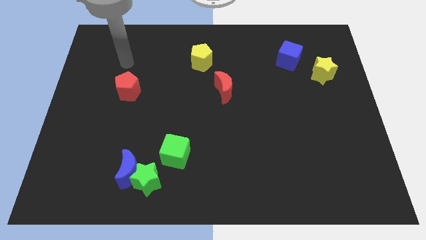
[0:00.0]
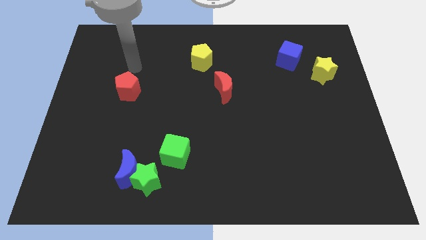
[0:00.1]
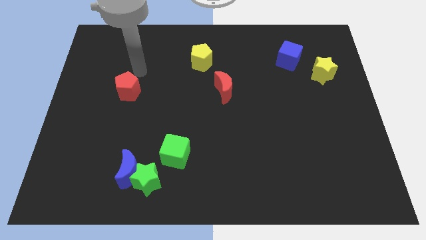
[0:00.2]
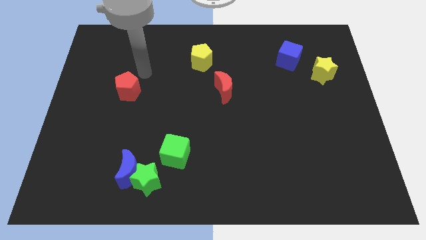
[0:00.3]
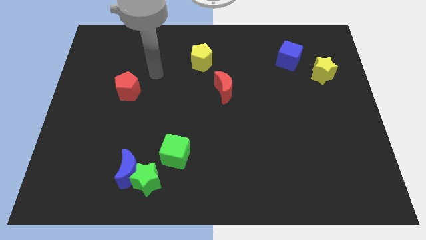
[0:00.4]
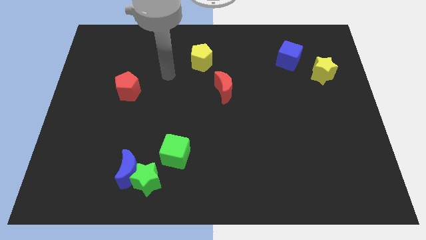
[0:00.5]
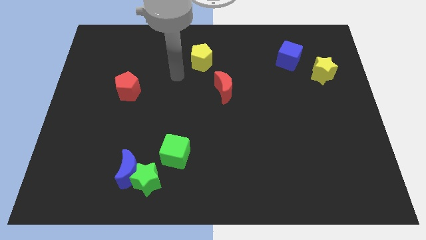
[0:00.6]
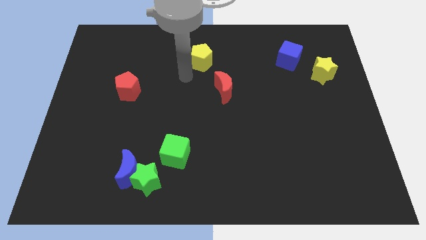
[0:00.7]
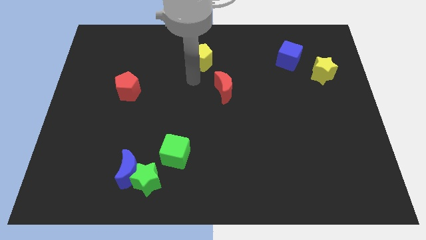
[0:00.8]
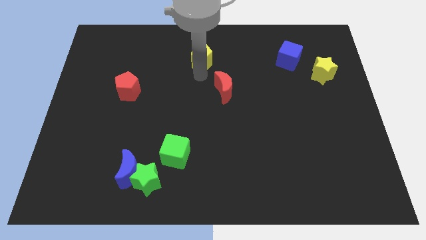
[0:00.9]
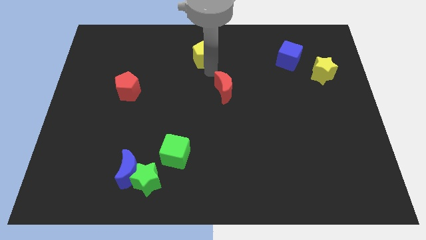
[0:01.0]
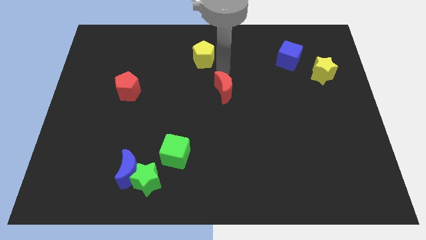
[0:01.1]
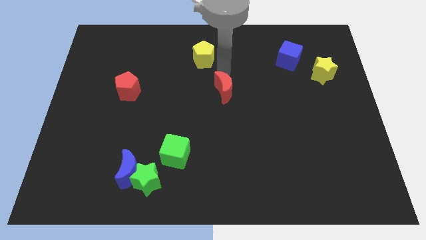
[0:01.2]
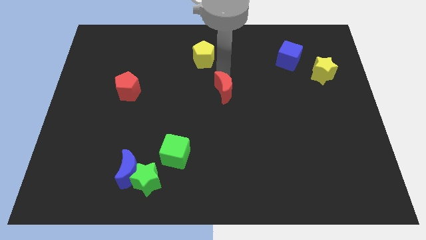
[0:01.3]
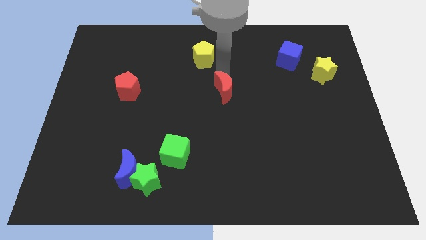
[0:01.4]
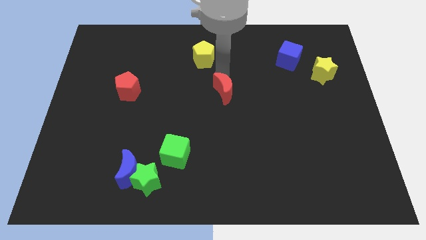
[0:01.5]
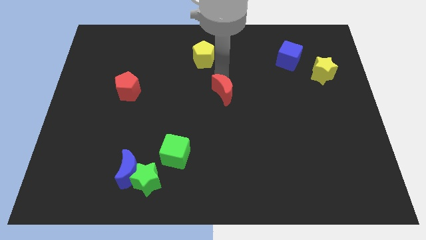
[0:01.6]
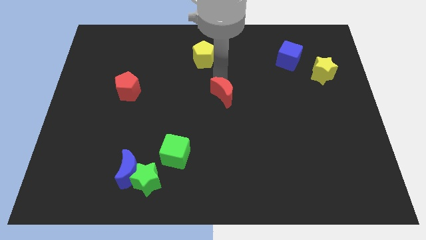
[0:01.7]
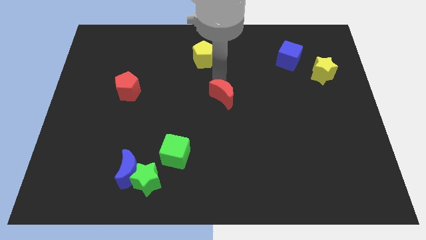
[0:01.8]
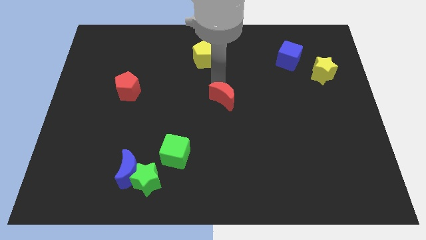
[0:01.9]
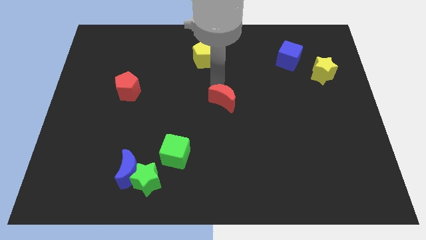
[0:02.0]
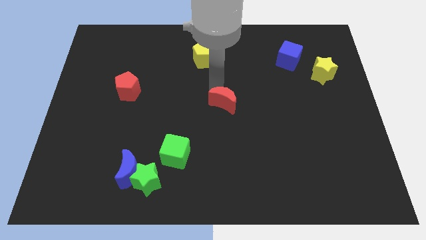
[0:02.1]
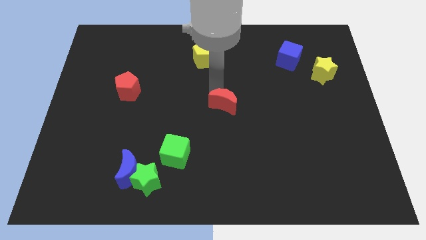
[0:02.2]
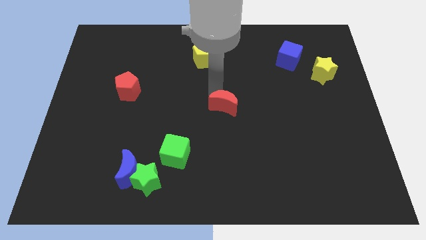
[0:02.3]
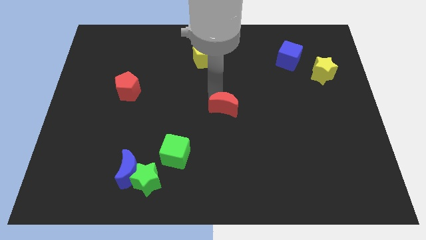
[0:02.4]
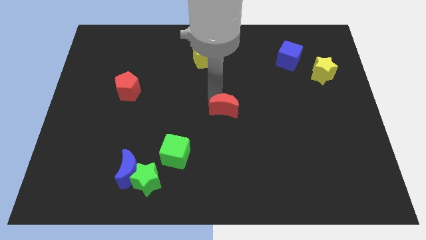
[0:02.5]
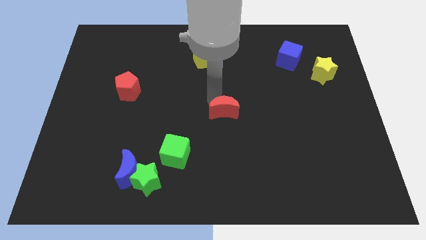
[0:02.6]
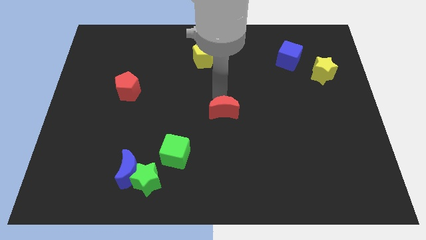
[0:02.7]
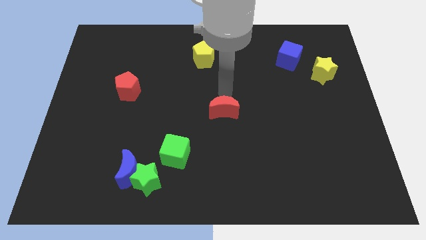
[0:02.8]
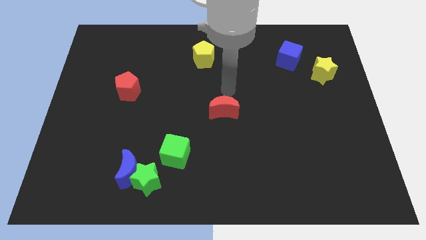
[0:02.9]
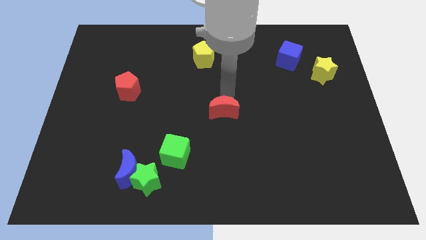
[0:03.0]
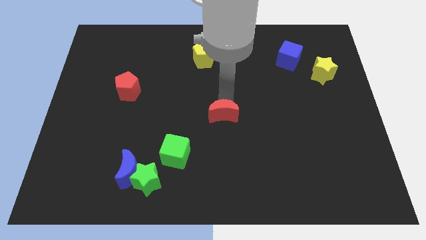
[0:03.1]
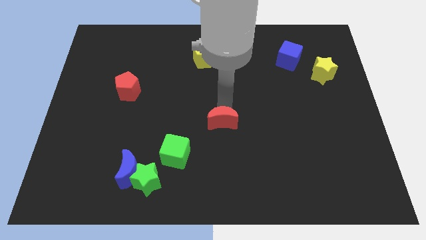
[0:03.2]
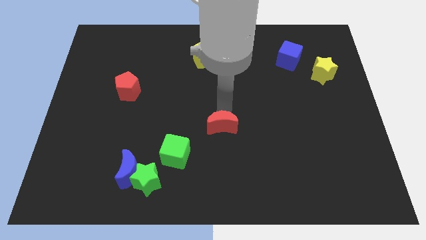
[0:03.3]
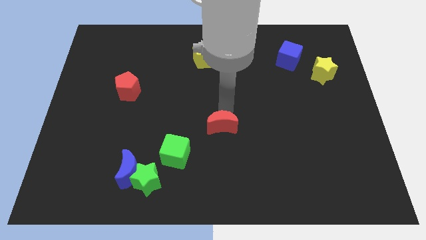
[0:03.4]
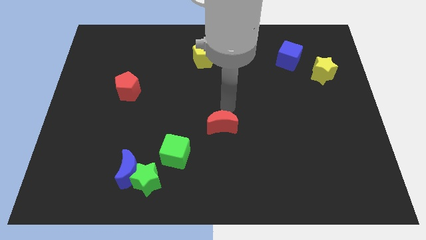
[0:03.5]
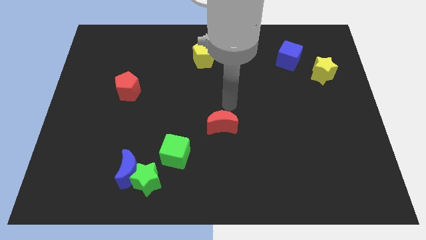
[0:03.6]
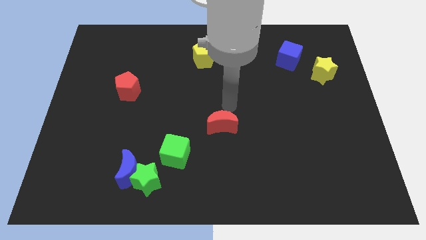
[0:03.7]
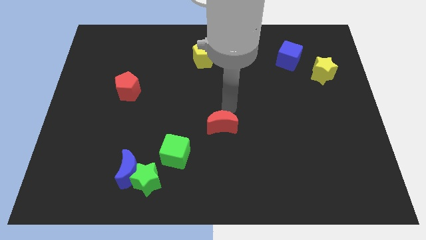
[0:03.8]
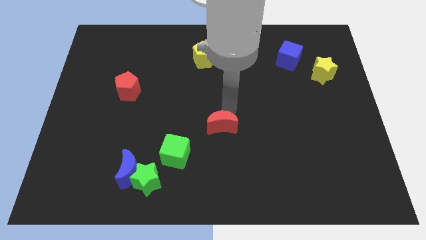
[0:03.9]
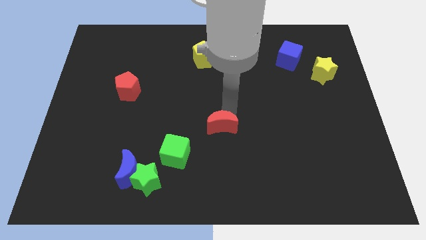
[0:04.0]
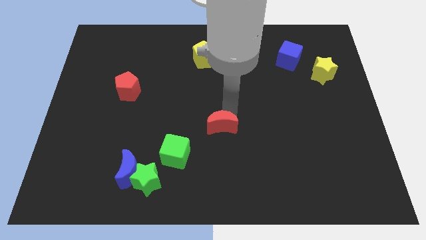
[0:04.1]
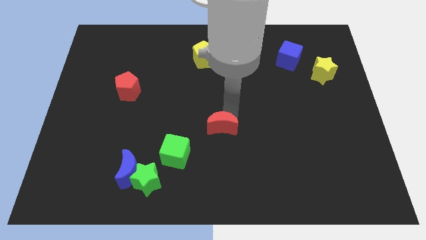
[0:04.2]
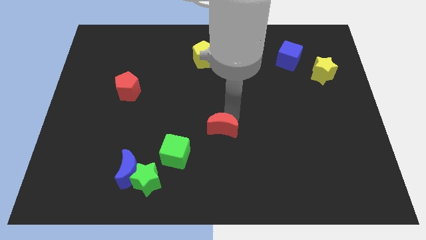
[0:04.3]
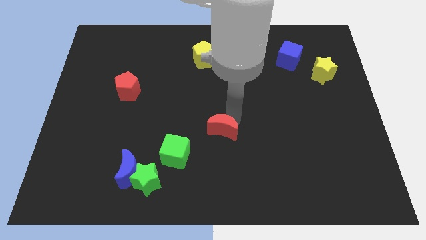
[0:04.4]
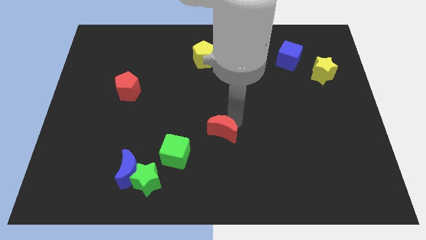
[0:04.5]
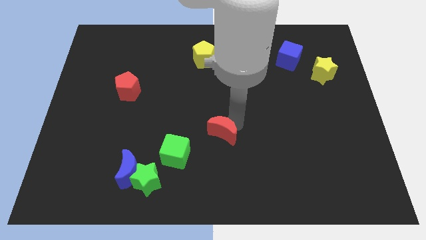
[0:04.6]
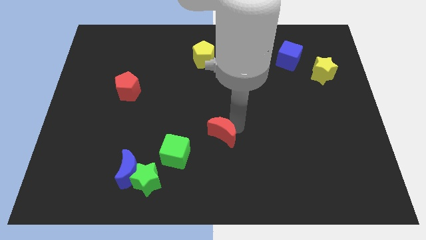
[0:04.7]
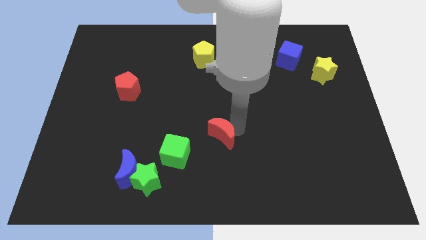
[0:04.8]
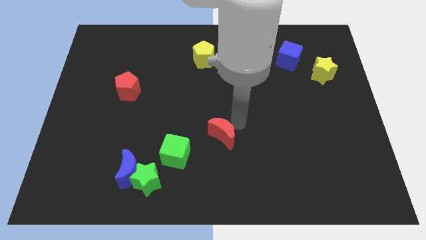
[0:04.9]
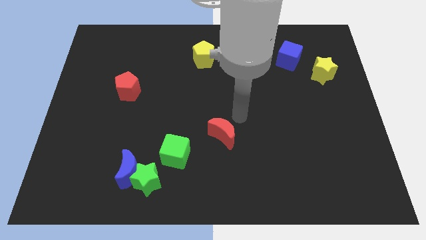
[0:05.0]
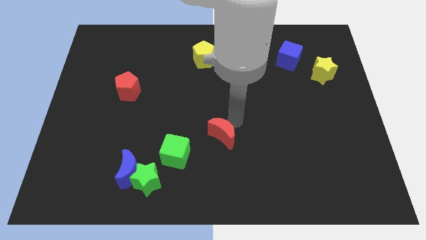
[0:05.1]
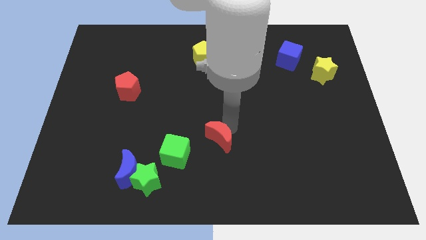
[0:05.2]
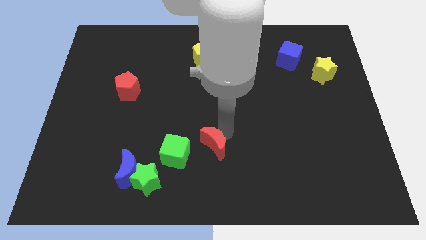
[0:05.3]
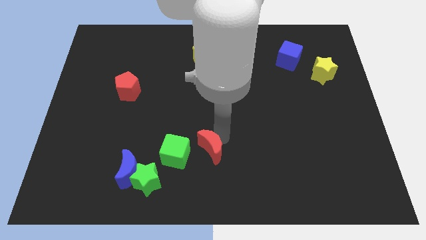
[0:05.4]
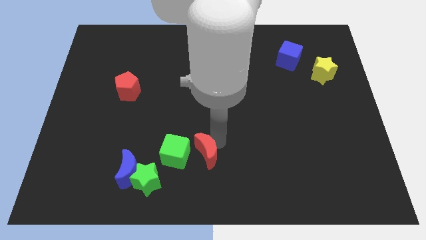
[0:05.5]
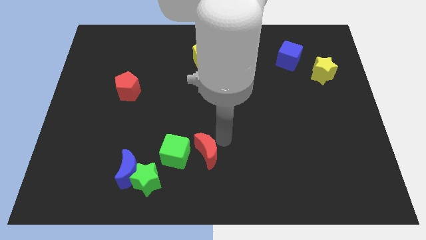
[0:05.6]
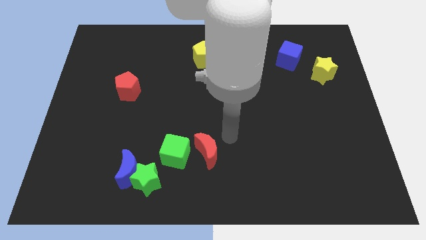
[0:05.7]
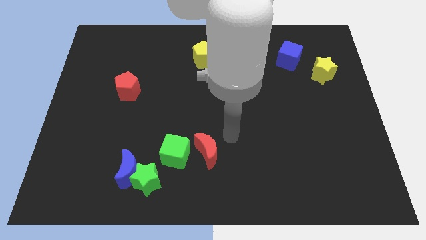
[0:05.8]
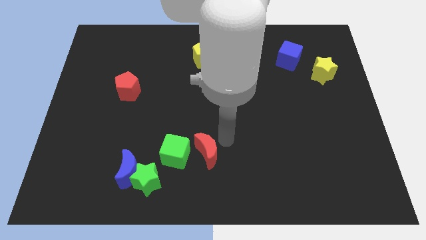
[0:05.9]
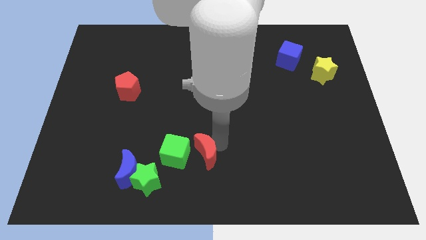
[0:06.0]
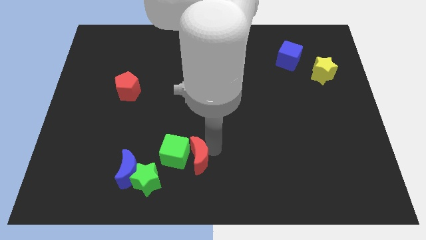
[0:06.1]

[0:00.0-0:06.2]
put the red moon just right of the blue moon

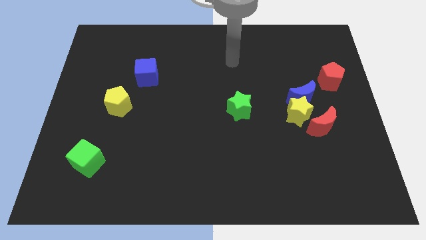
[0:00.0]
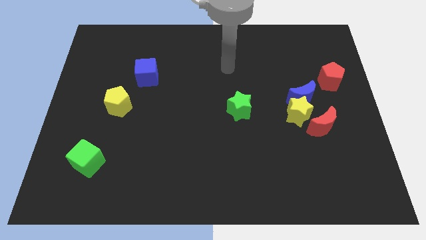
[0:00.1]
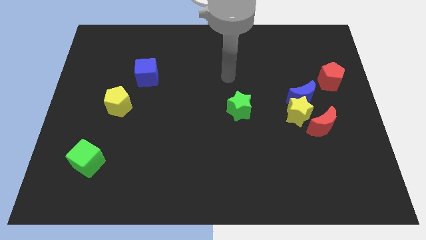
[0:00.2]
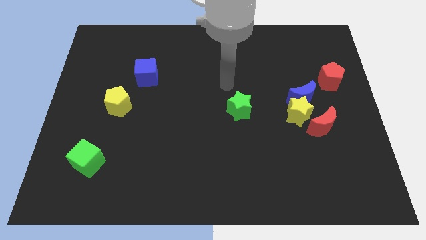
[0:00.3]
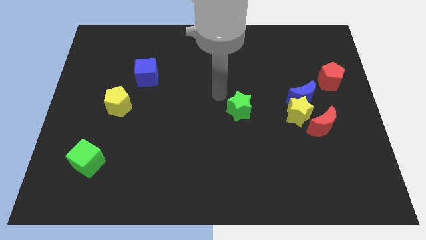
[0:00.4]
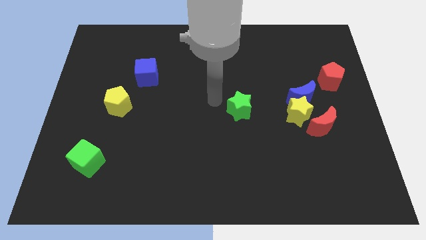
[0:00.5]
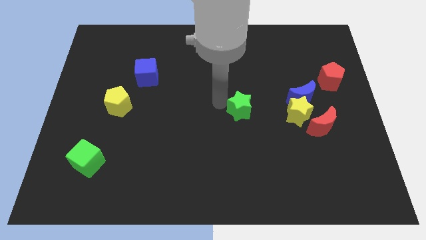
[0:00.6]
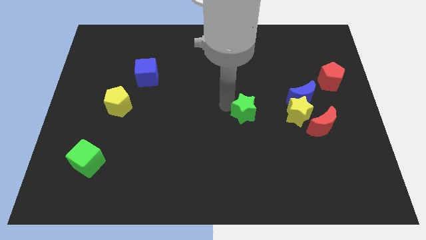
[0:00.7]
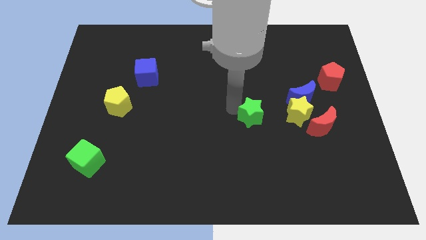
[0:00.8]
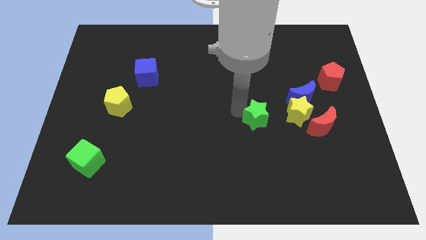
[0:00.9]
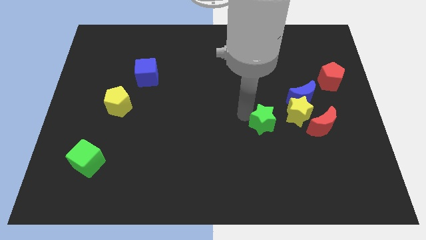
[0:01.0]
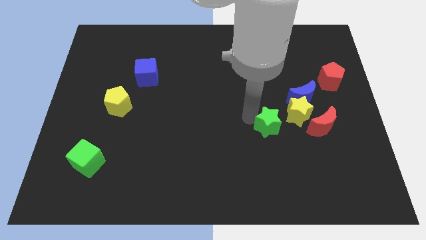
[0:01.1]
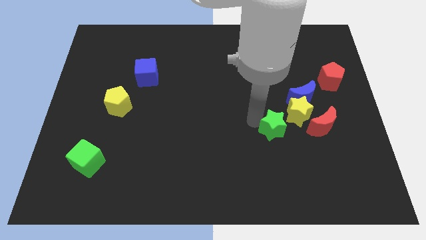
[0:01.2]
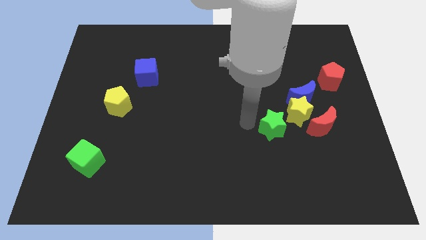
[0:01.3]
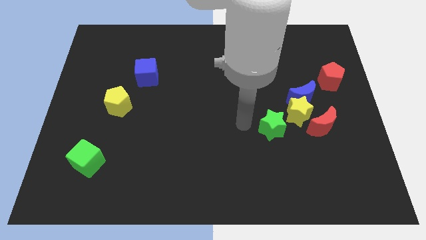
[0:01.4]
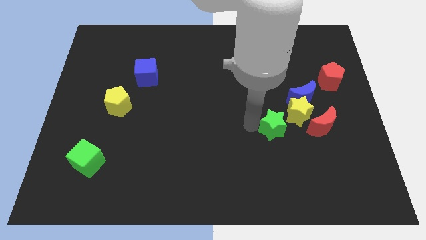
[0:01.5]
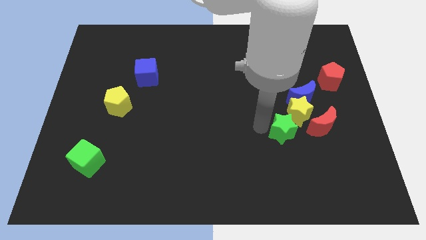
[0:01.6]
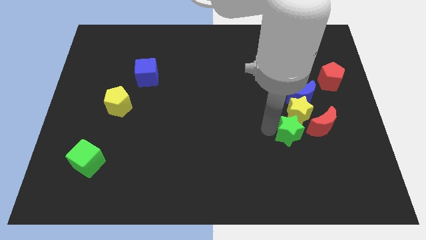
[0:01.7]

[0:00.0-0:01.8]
push the green star to the bottom of the blue moon
